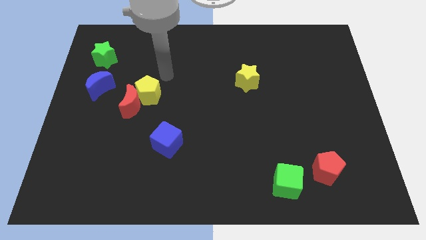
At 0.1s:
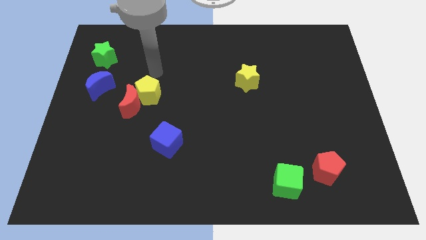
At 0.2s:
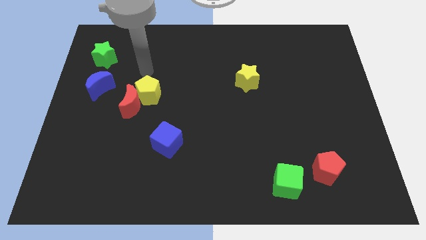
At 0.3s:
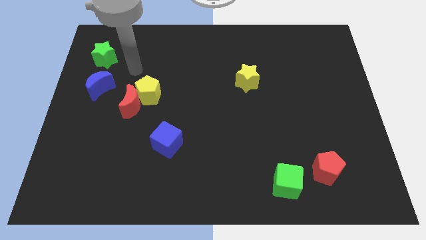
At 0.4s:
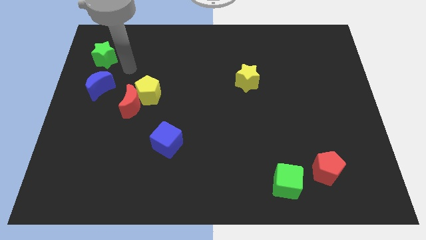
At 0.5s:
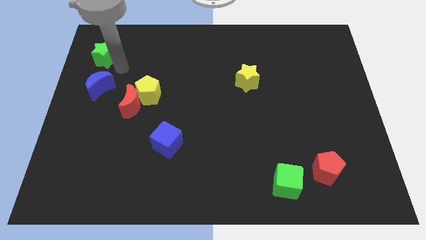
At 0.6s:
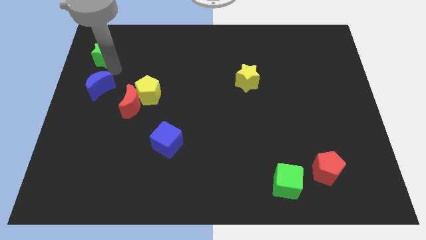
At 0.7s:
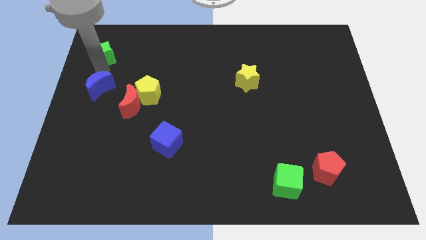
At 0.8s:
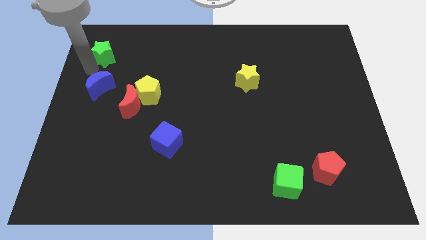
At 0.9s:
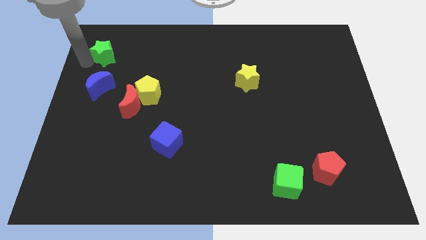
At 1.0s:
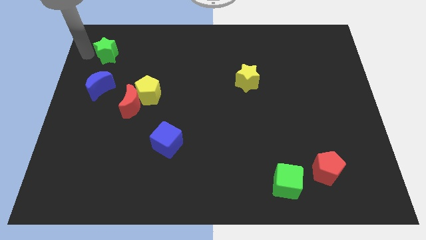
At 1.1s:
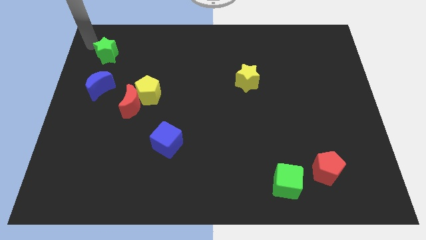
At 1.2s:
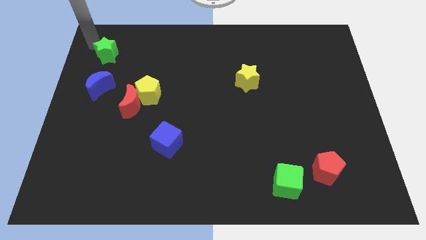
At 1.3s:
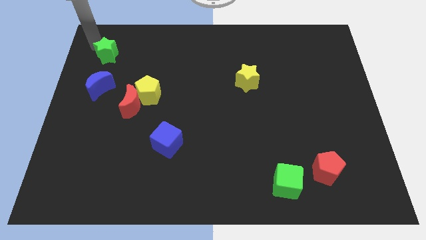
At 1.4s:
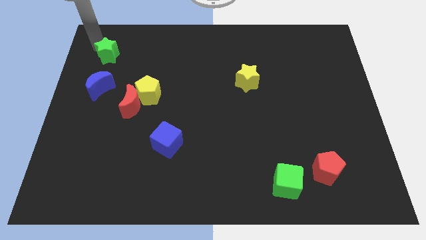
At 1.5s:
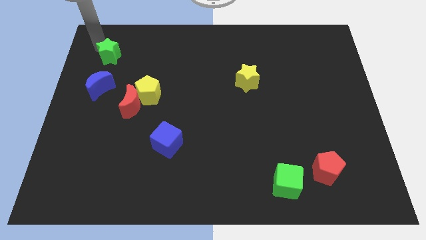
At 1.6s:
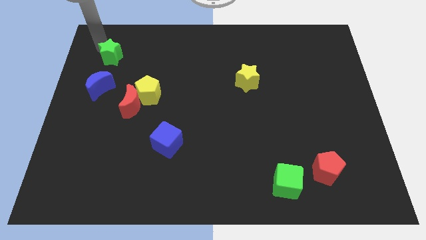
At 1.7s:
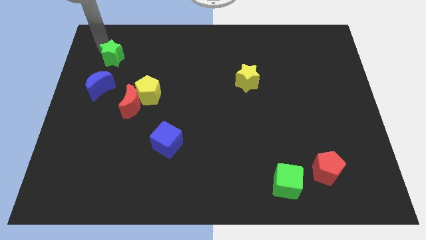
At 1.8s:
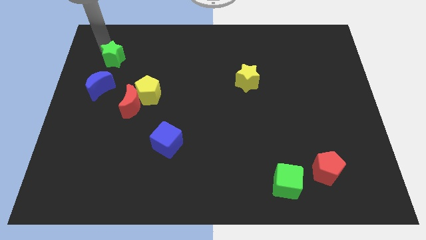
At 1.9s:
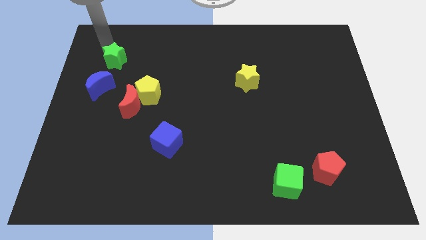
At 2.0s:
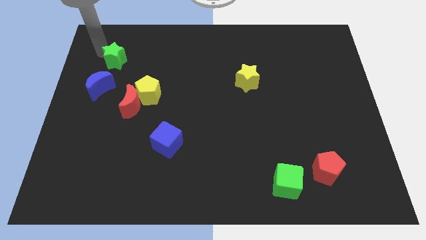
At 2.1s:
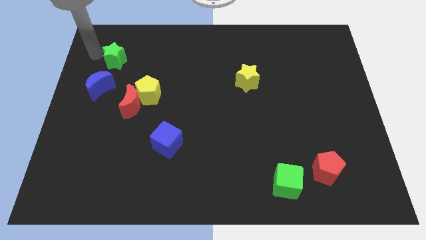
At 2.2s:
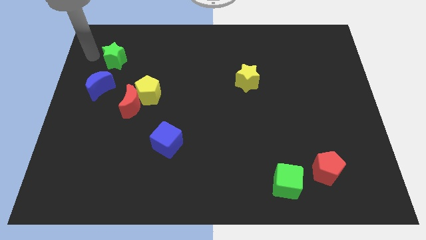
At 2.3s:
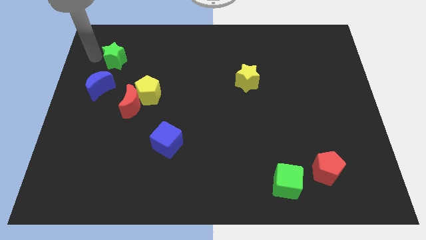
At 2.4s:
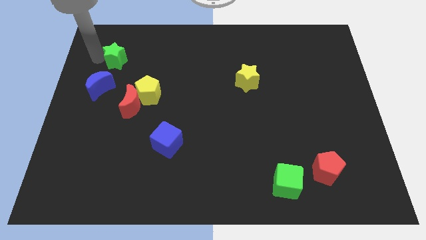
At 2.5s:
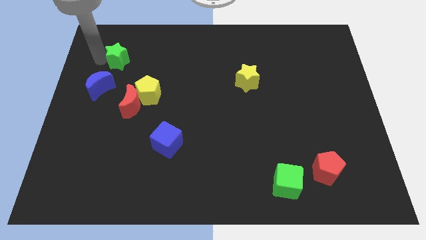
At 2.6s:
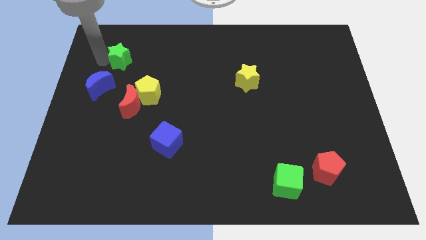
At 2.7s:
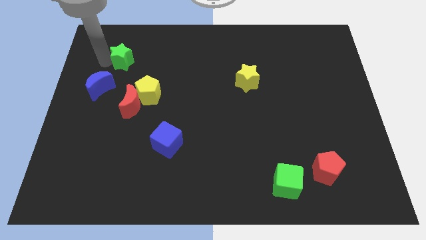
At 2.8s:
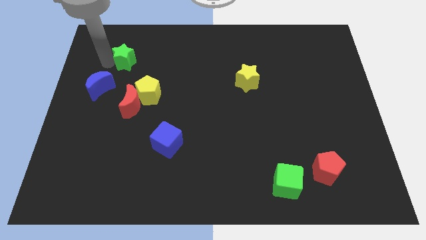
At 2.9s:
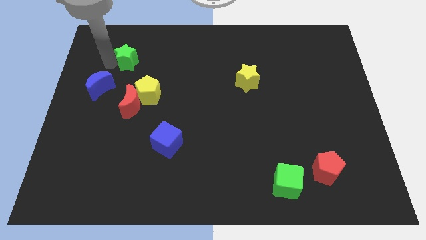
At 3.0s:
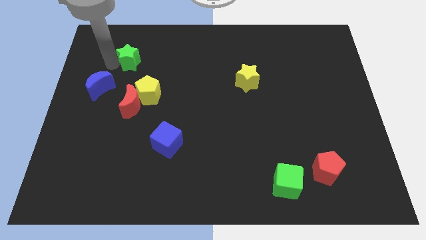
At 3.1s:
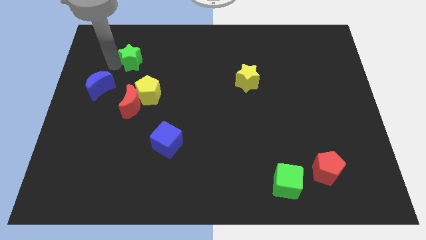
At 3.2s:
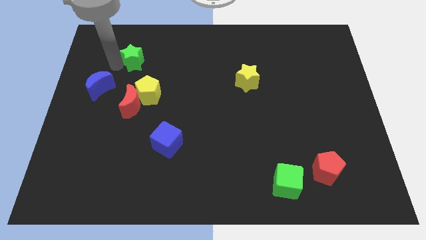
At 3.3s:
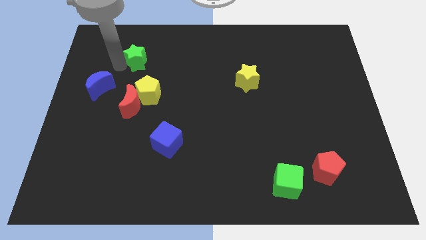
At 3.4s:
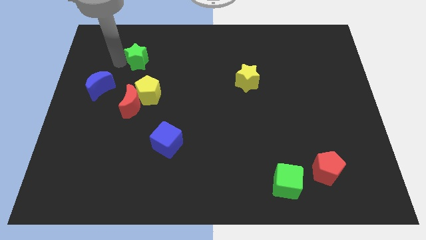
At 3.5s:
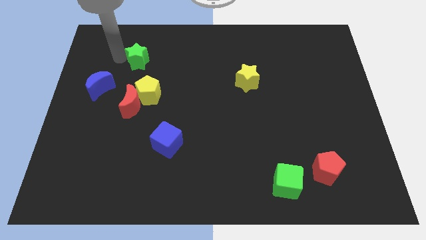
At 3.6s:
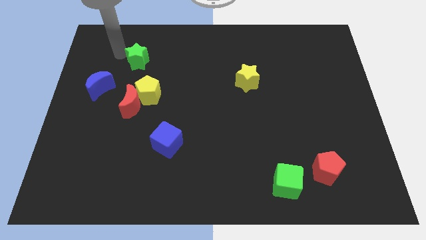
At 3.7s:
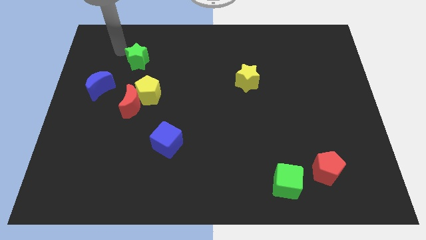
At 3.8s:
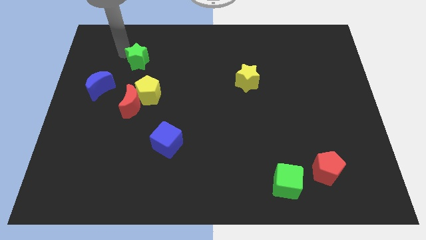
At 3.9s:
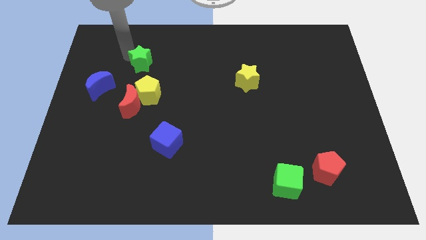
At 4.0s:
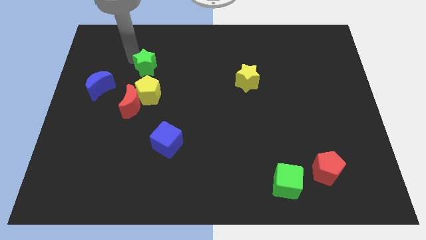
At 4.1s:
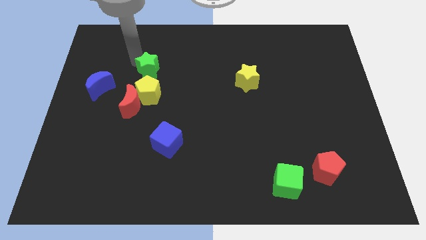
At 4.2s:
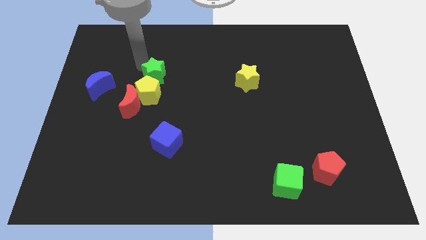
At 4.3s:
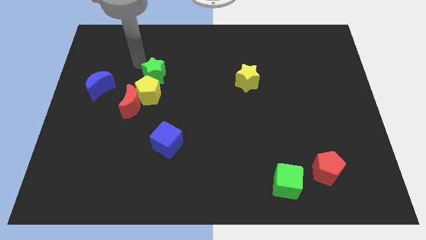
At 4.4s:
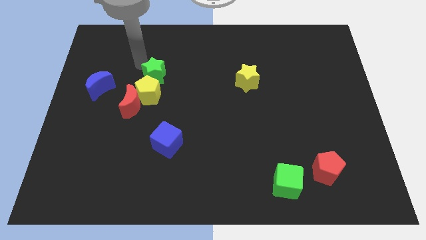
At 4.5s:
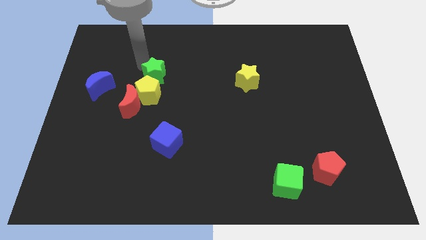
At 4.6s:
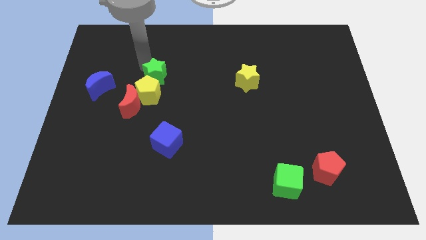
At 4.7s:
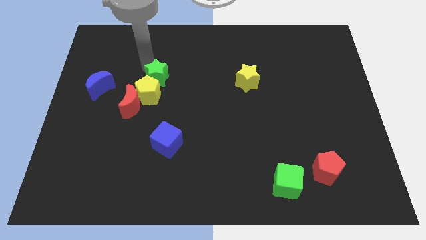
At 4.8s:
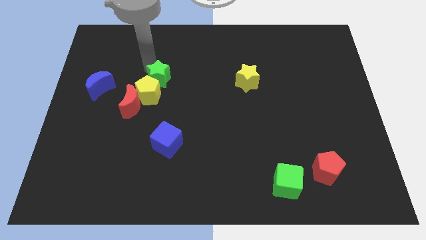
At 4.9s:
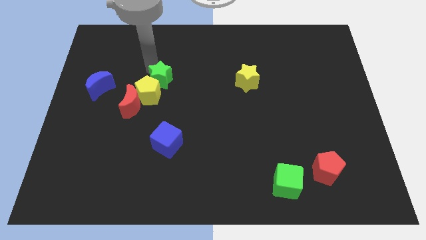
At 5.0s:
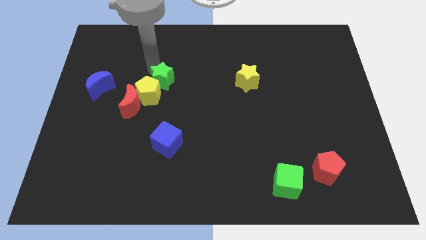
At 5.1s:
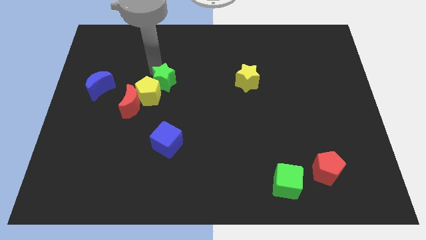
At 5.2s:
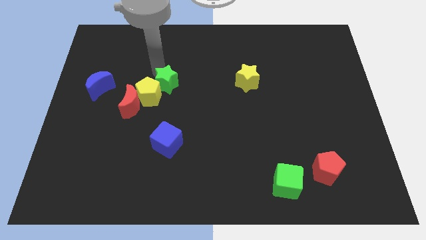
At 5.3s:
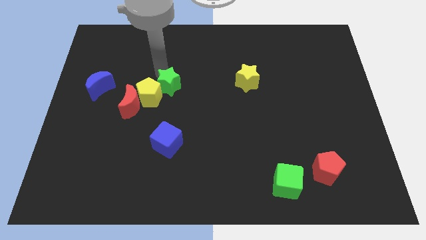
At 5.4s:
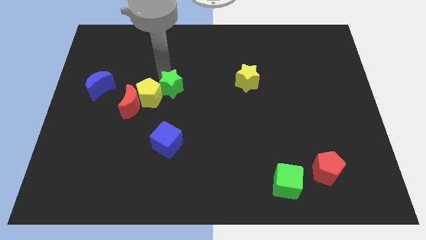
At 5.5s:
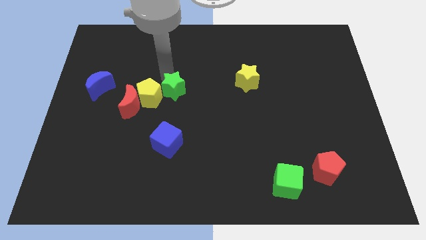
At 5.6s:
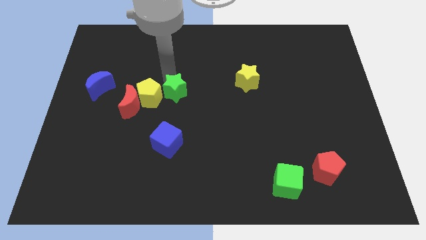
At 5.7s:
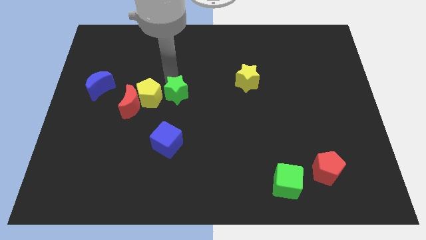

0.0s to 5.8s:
slide the green star to the bottom right of the yellow pentagon
